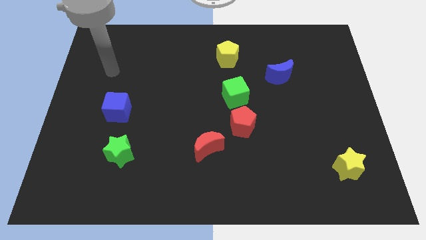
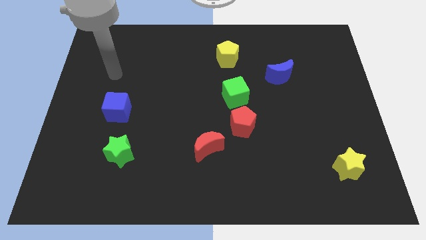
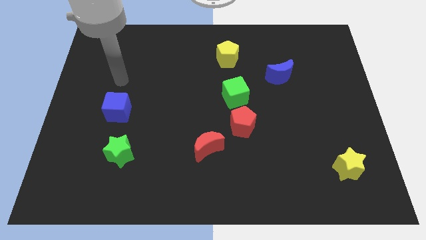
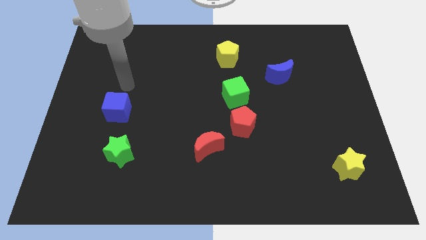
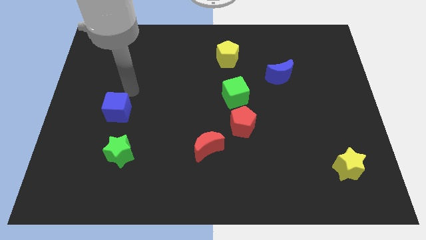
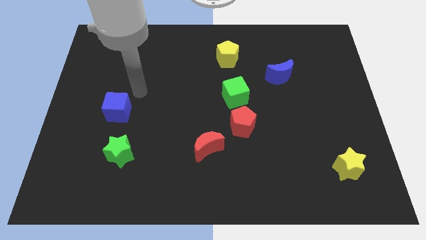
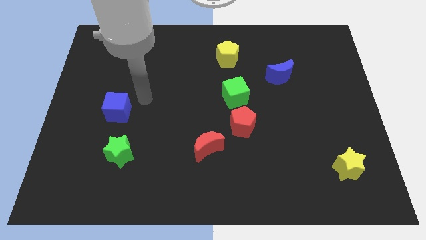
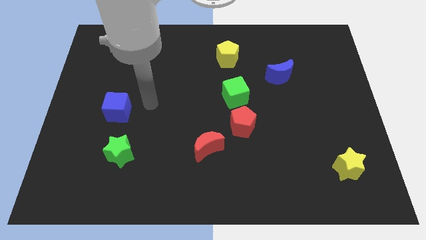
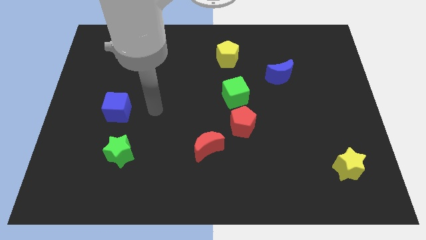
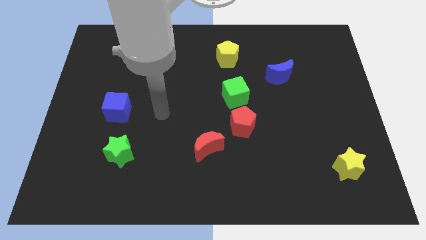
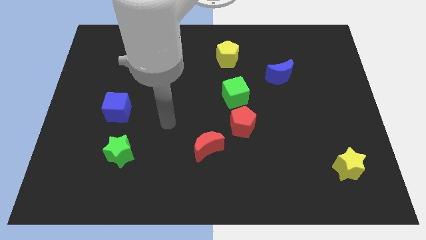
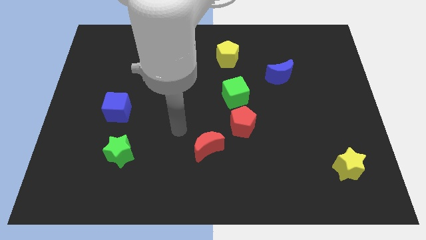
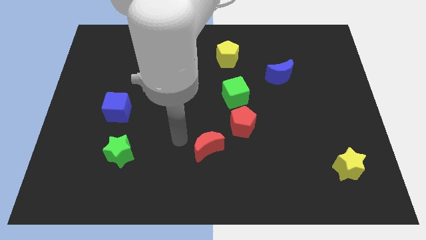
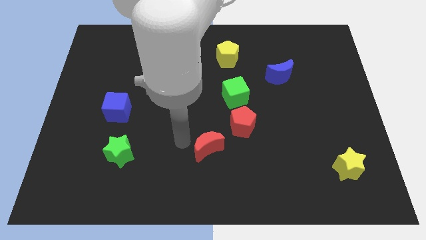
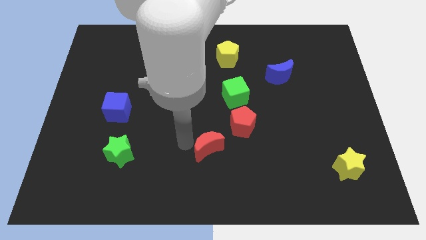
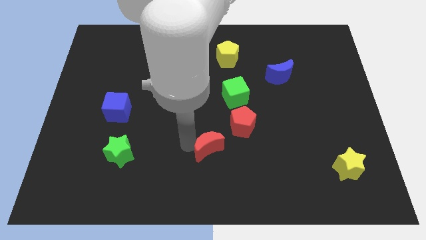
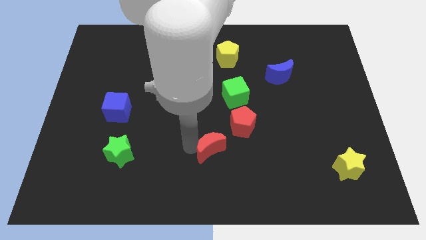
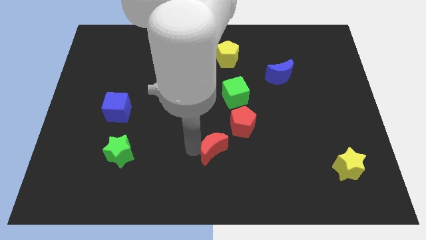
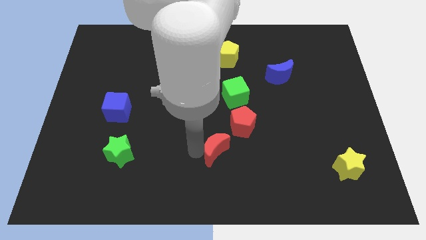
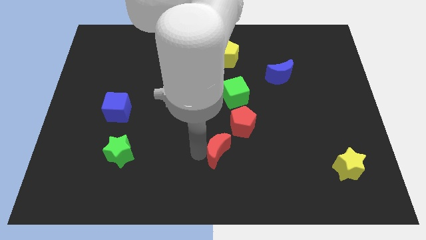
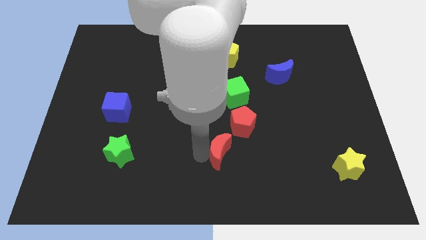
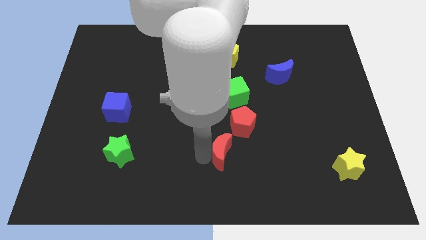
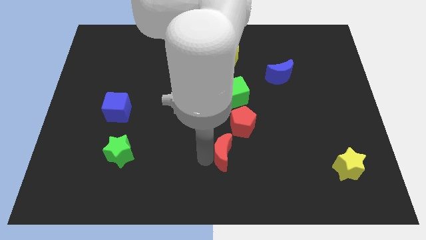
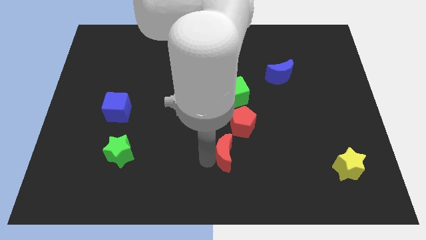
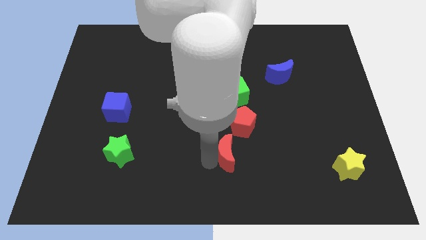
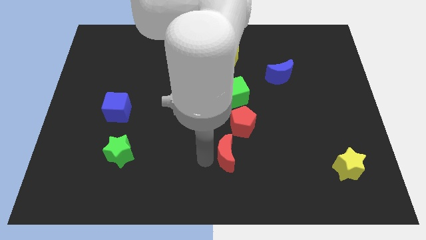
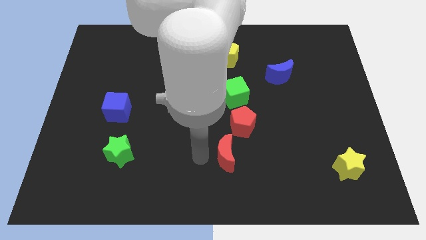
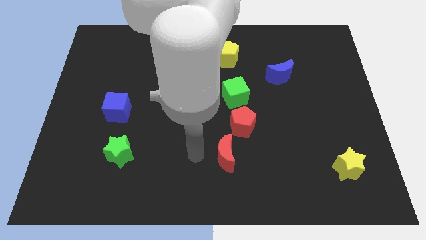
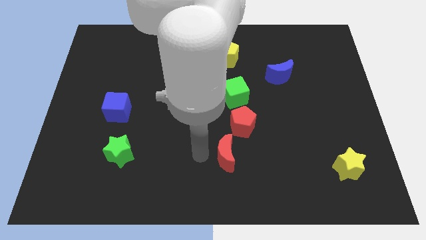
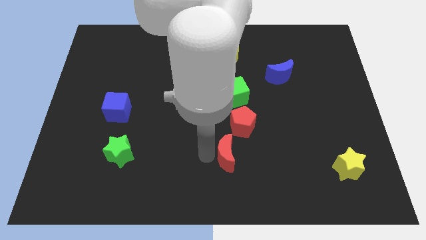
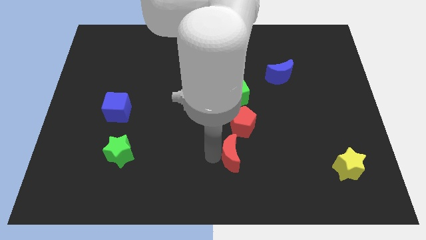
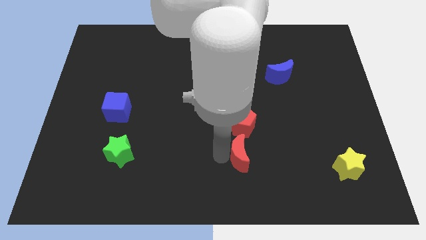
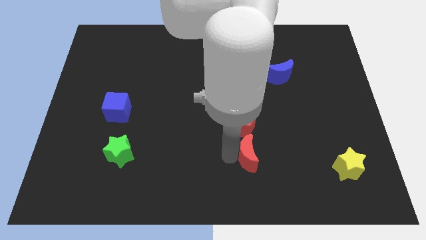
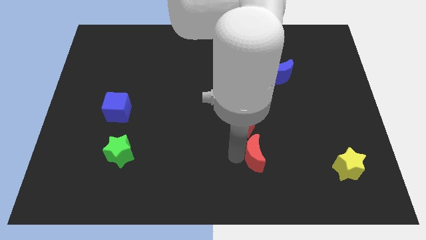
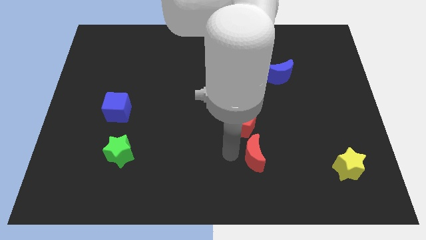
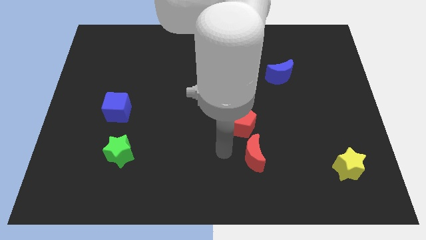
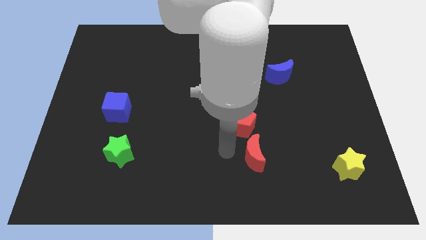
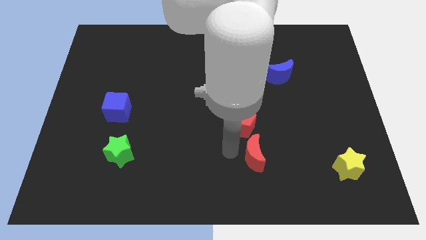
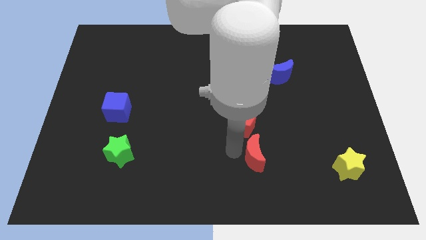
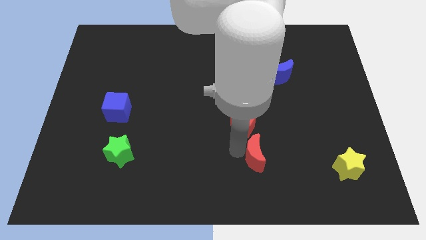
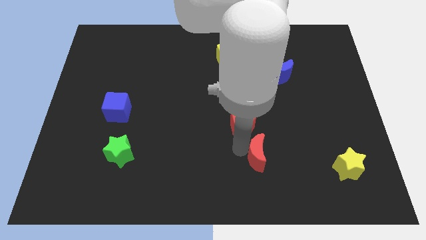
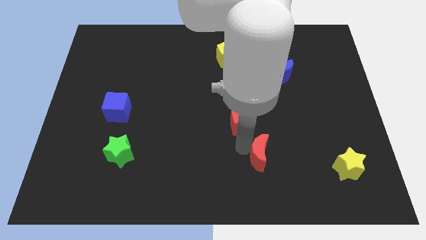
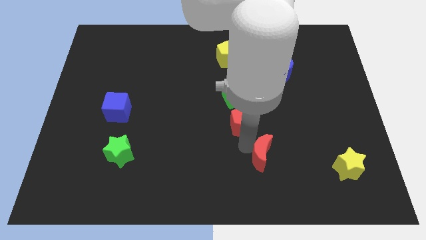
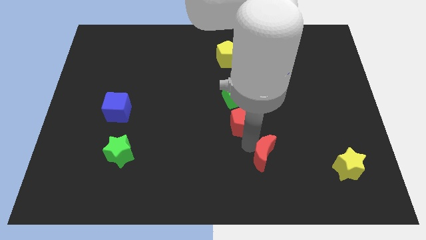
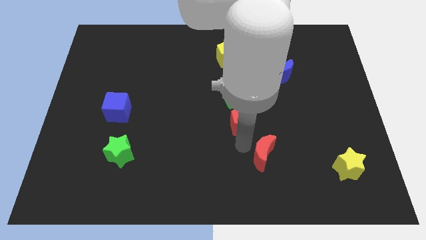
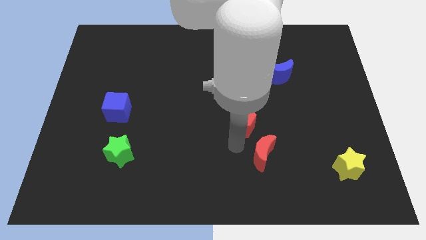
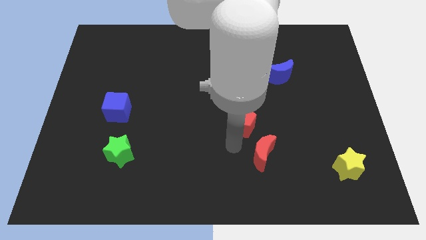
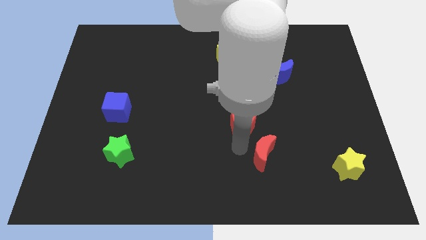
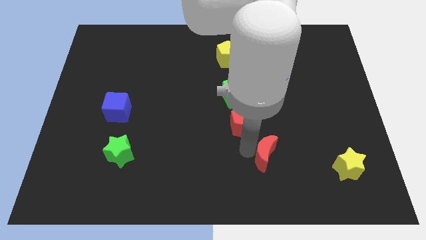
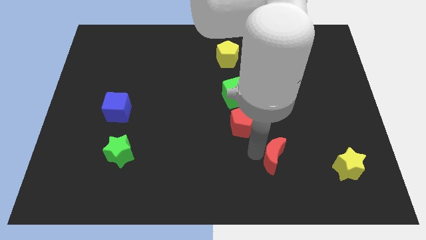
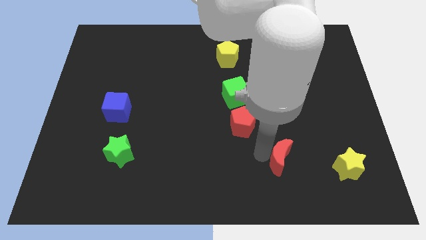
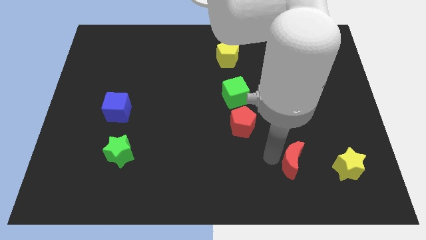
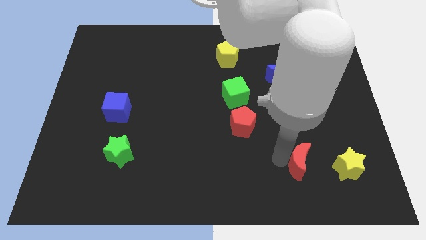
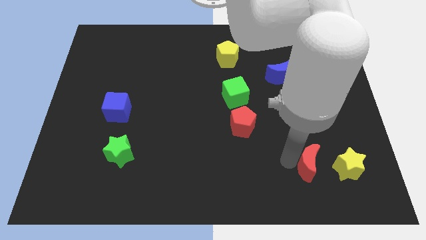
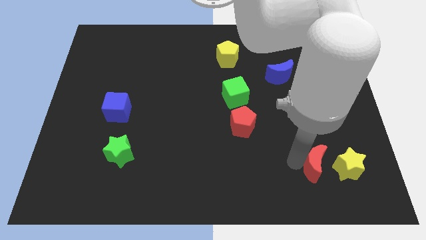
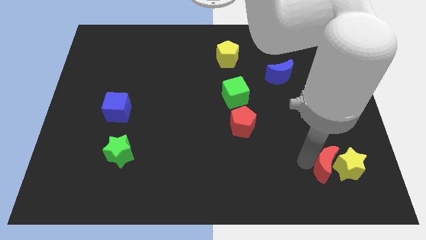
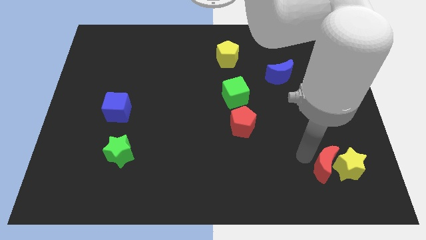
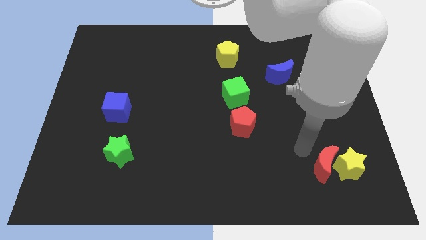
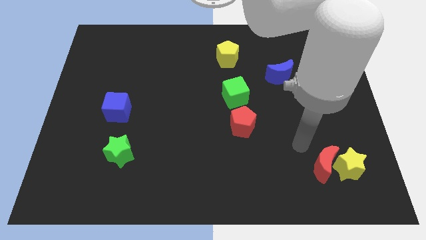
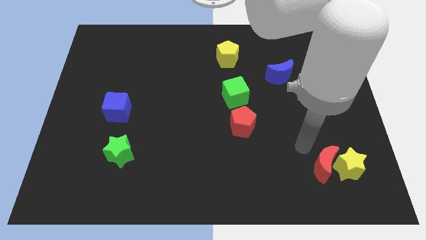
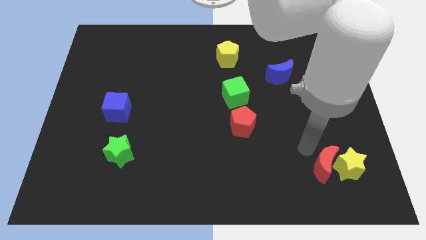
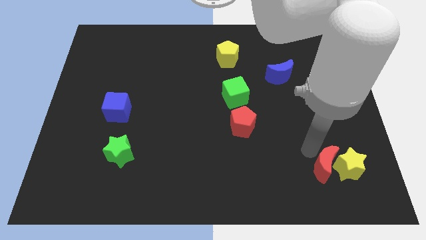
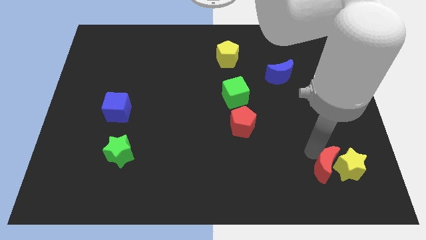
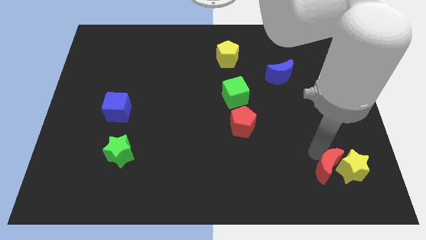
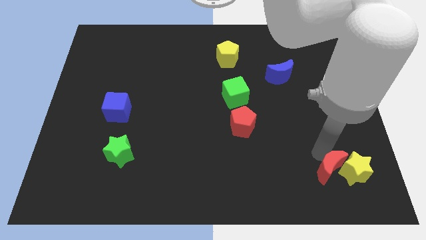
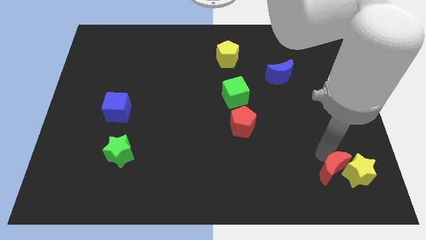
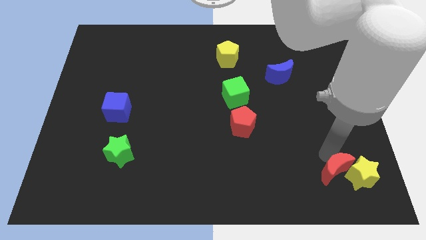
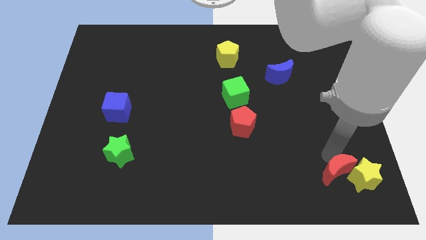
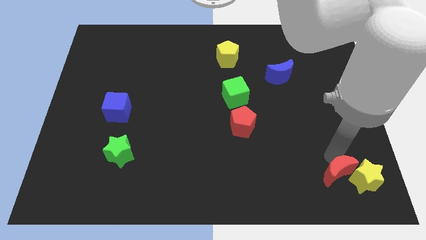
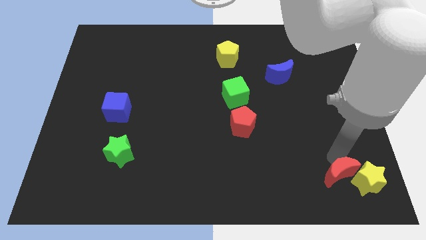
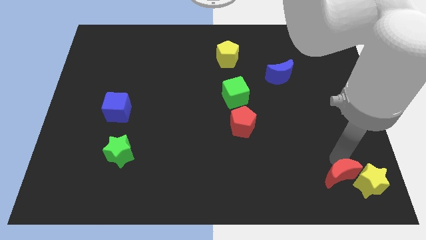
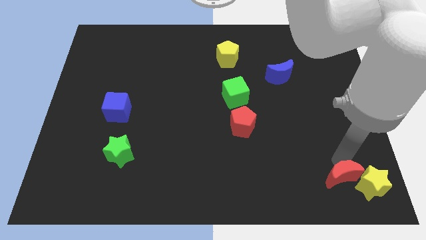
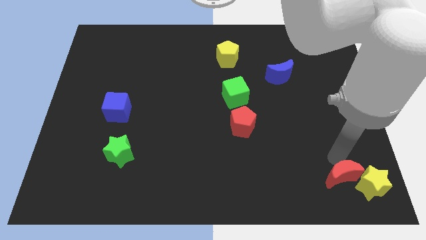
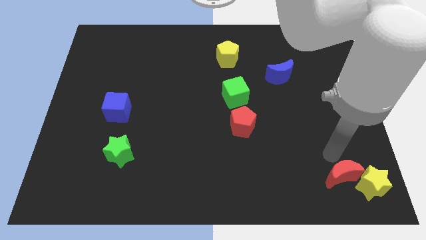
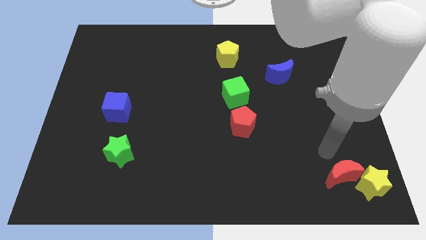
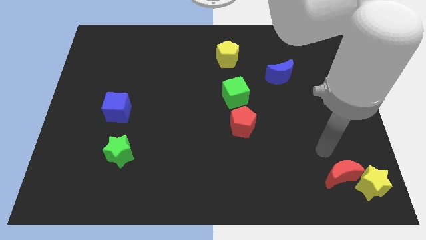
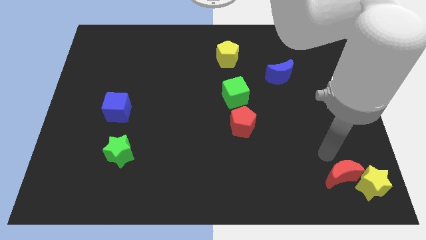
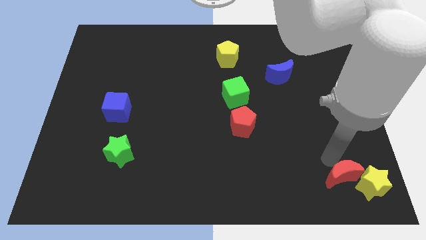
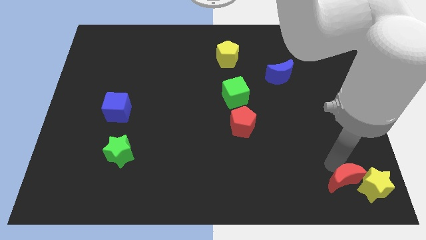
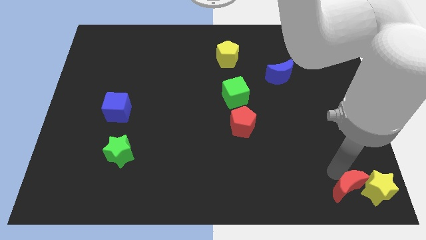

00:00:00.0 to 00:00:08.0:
put the red moon to the bottom right corner
